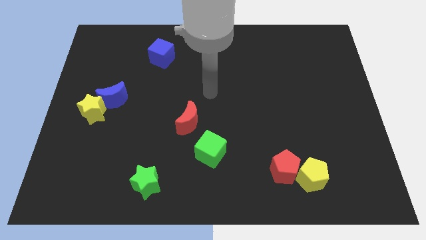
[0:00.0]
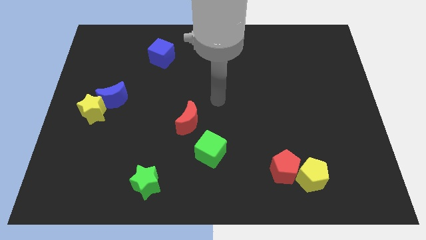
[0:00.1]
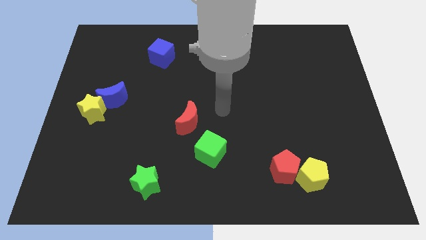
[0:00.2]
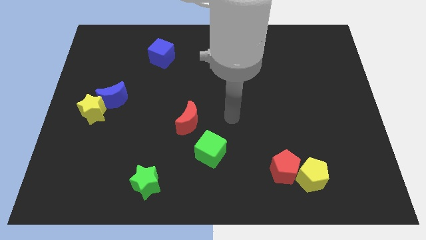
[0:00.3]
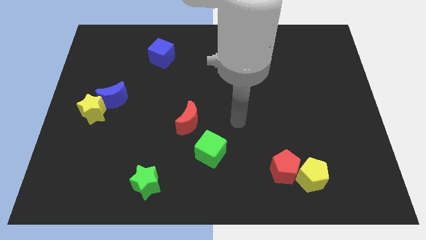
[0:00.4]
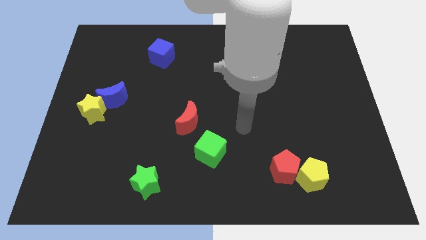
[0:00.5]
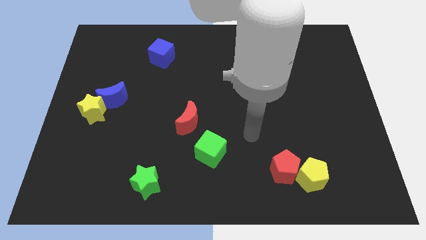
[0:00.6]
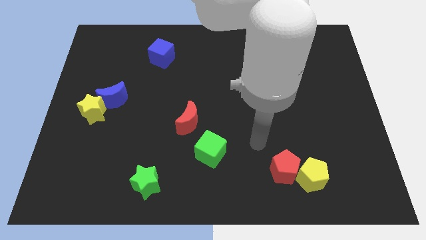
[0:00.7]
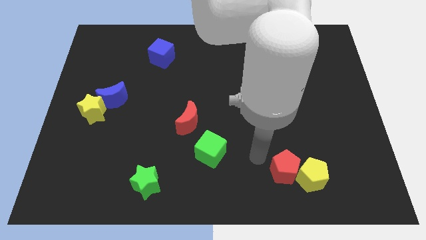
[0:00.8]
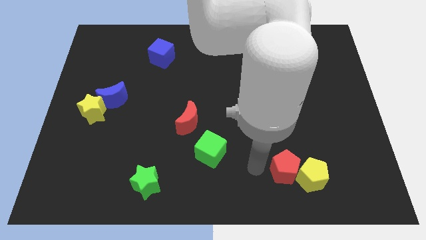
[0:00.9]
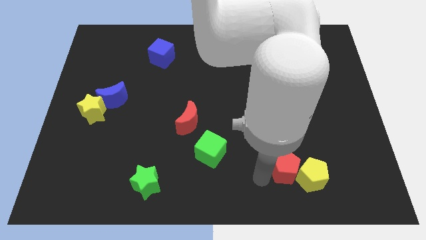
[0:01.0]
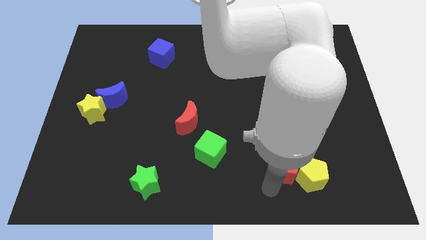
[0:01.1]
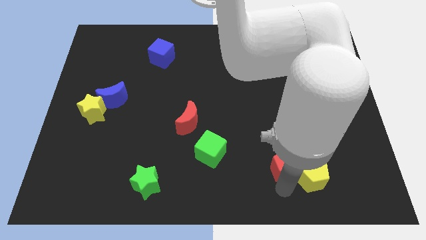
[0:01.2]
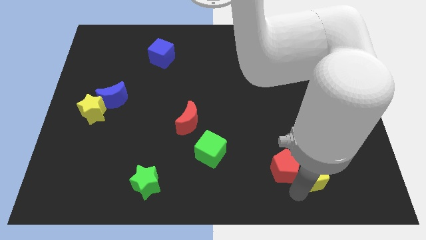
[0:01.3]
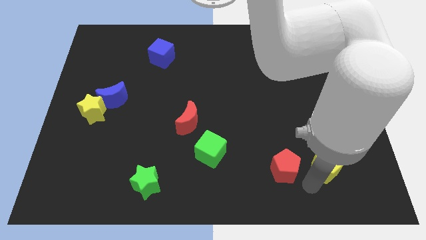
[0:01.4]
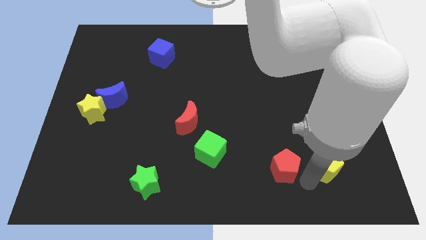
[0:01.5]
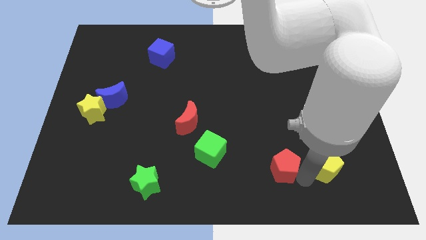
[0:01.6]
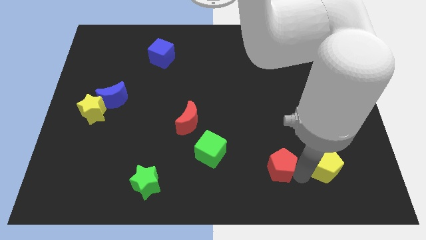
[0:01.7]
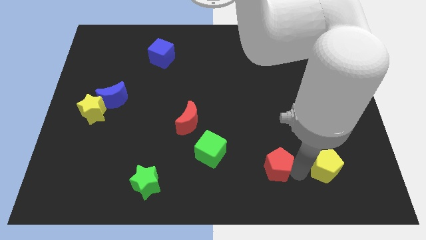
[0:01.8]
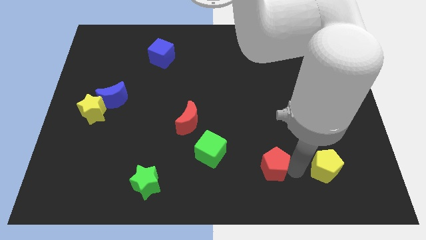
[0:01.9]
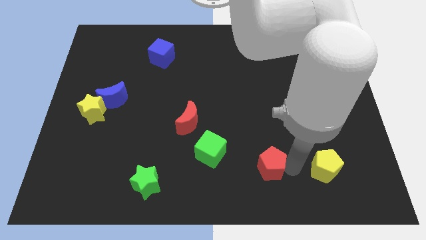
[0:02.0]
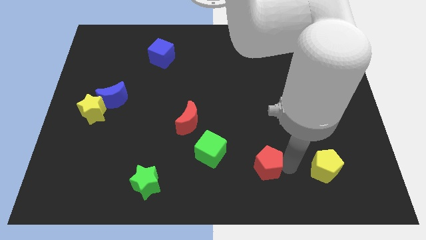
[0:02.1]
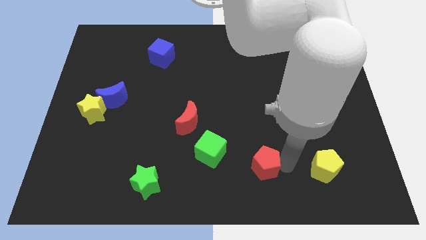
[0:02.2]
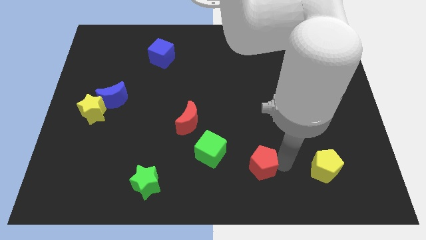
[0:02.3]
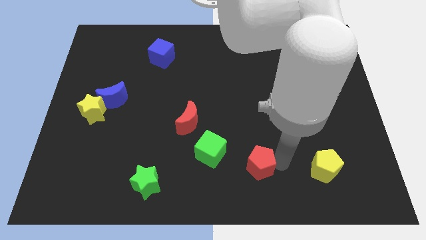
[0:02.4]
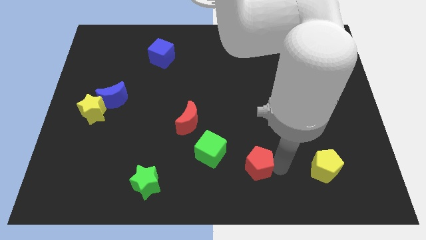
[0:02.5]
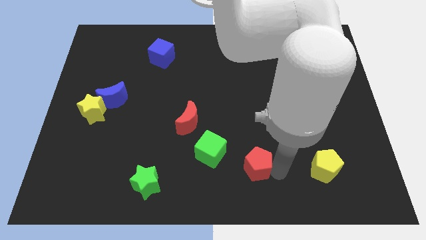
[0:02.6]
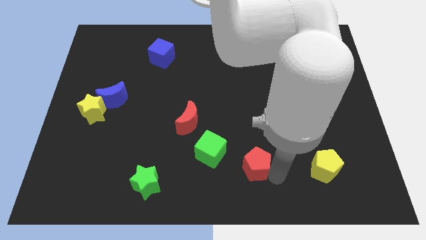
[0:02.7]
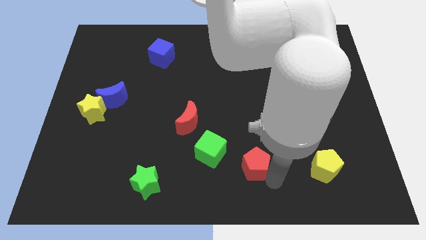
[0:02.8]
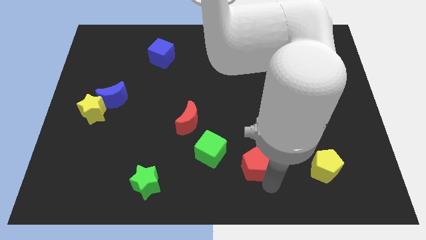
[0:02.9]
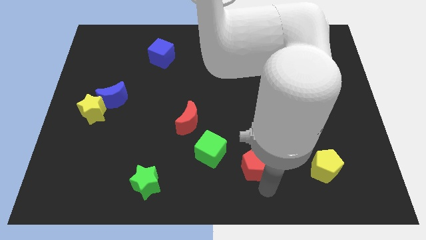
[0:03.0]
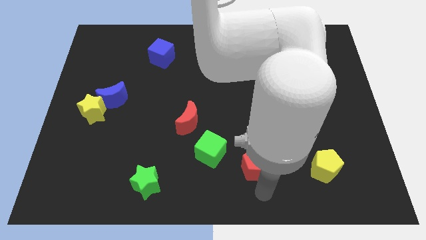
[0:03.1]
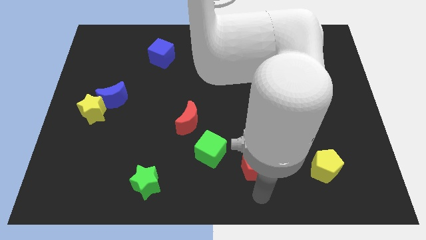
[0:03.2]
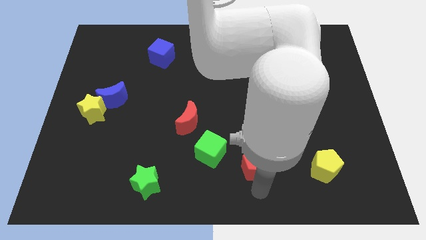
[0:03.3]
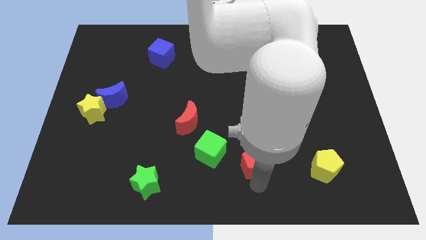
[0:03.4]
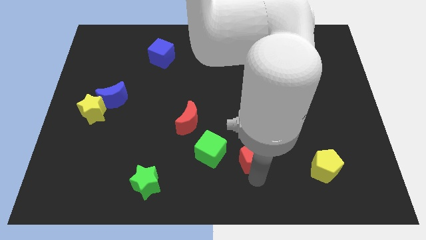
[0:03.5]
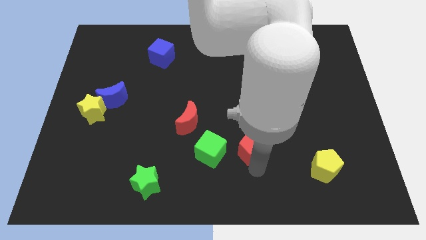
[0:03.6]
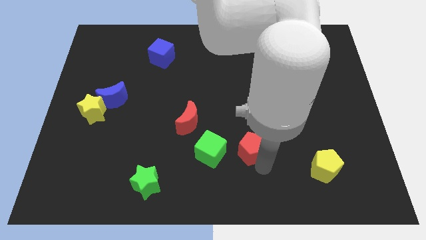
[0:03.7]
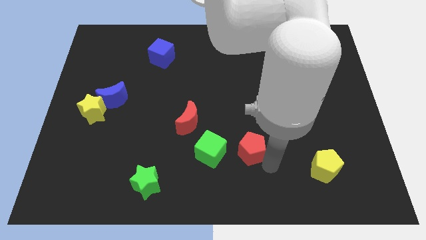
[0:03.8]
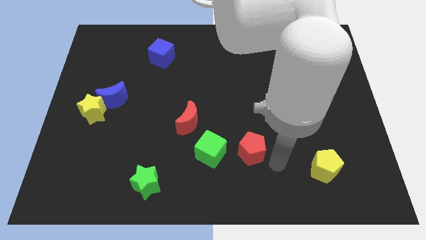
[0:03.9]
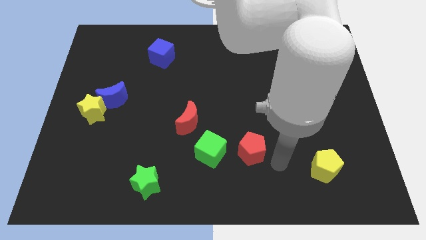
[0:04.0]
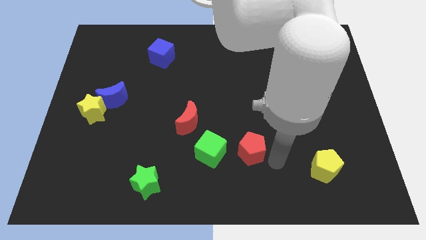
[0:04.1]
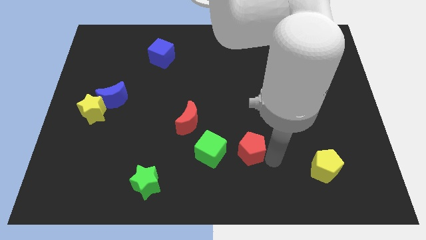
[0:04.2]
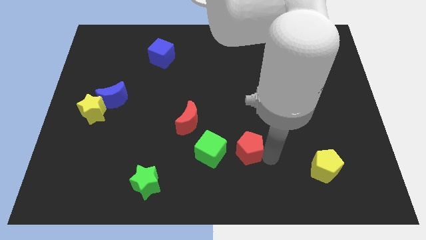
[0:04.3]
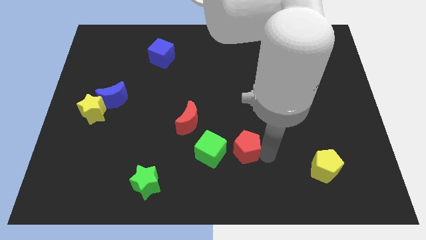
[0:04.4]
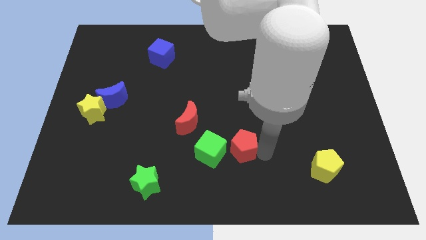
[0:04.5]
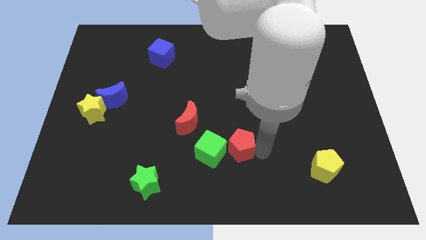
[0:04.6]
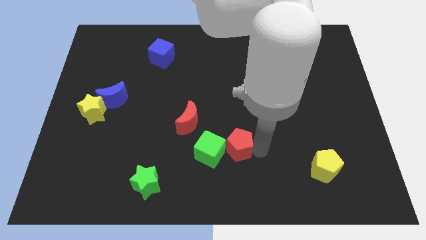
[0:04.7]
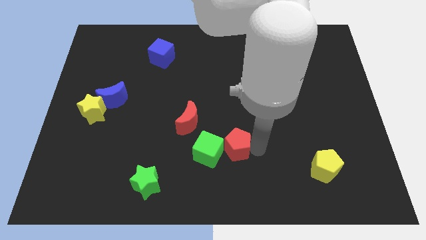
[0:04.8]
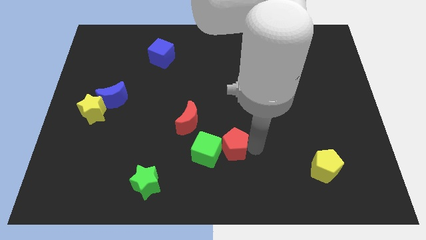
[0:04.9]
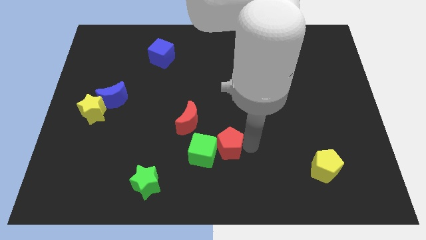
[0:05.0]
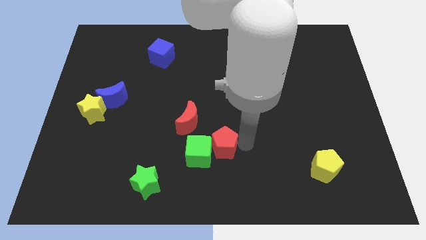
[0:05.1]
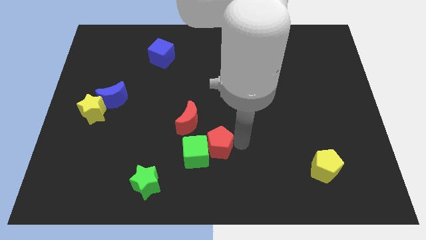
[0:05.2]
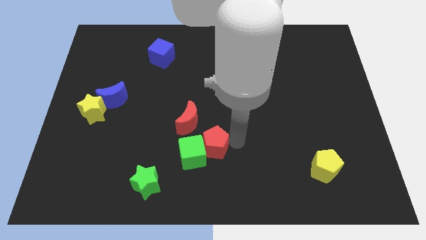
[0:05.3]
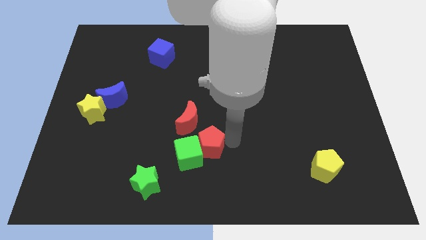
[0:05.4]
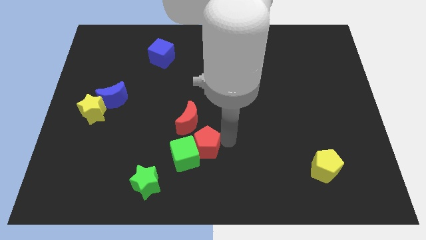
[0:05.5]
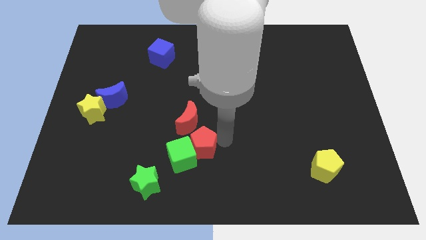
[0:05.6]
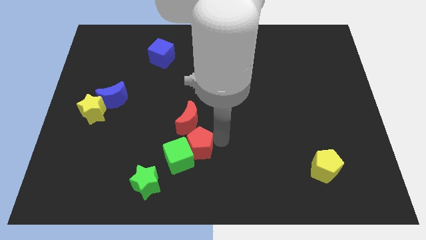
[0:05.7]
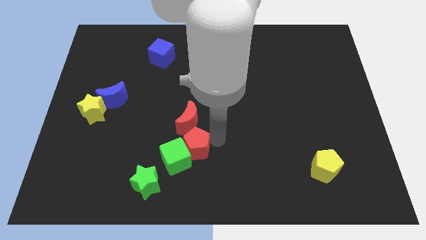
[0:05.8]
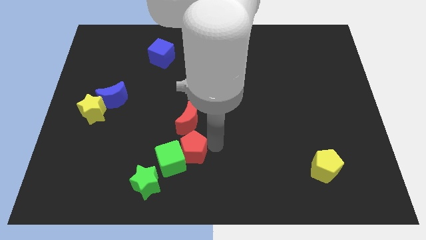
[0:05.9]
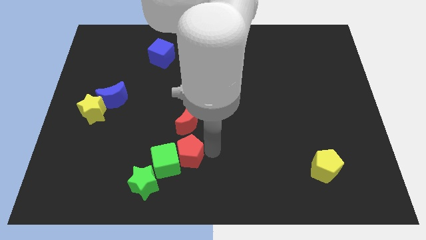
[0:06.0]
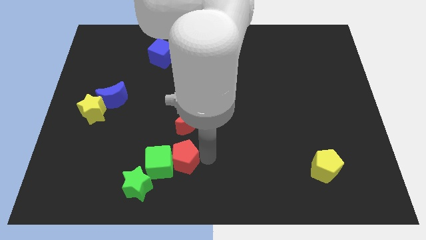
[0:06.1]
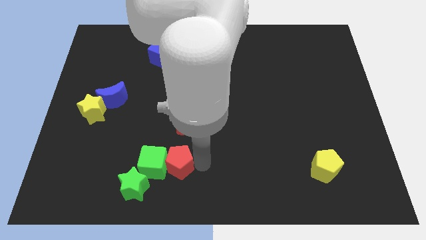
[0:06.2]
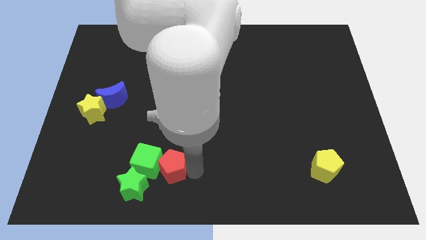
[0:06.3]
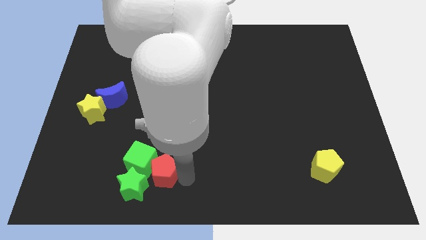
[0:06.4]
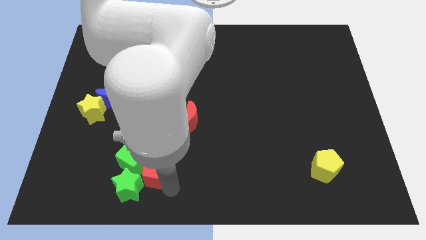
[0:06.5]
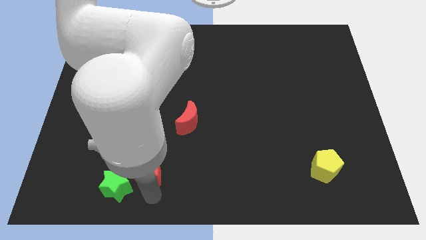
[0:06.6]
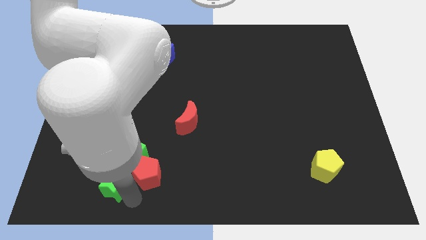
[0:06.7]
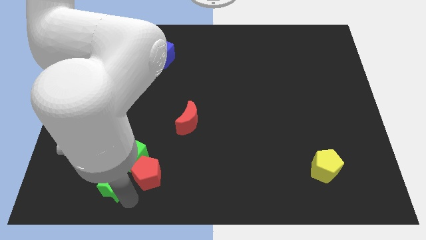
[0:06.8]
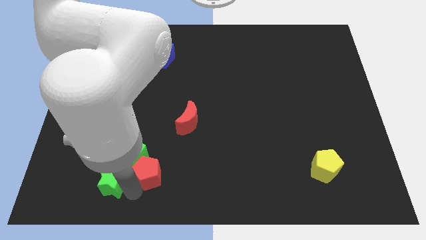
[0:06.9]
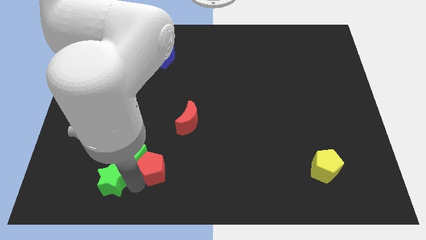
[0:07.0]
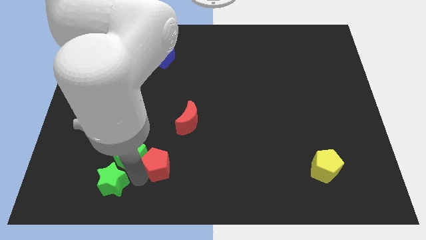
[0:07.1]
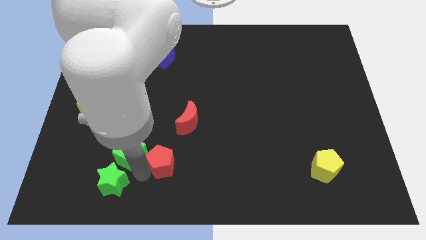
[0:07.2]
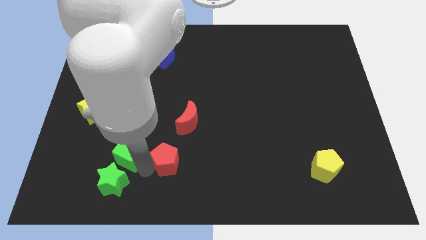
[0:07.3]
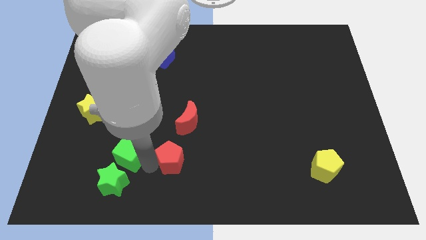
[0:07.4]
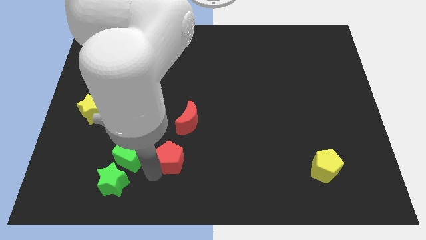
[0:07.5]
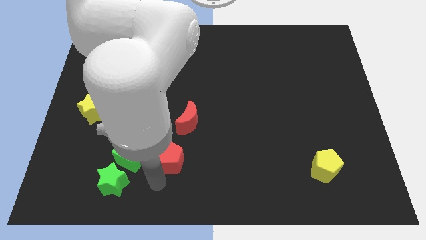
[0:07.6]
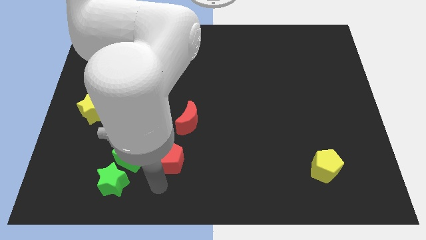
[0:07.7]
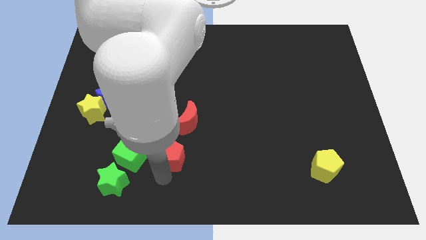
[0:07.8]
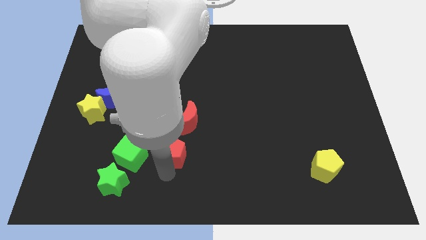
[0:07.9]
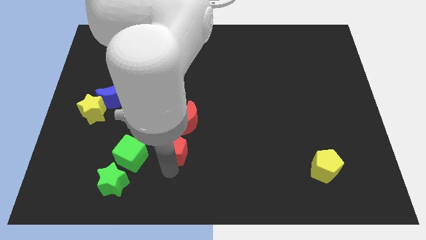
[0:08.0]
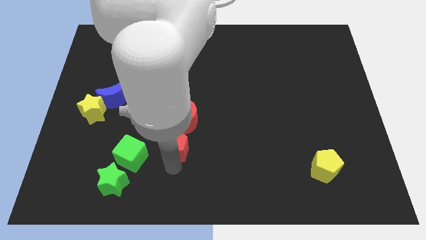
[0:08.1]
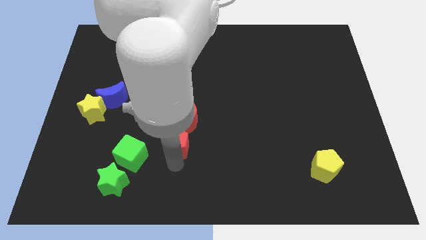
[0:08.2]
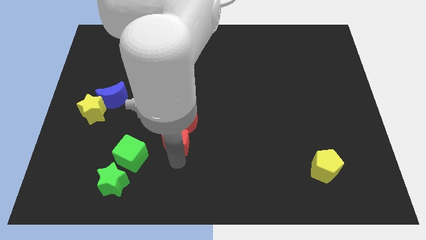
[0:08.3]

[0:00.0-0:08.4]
put the red pentagon next to the red moon
